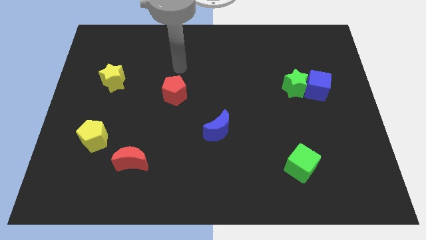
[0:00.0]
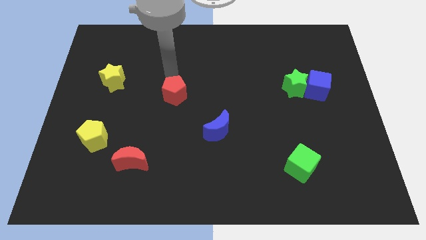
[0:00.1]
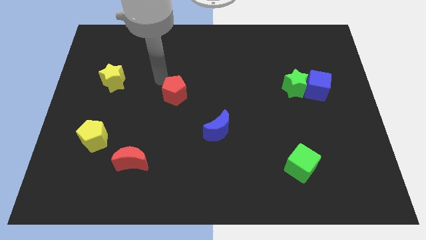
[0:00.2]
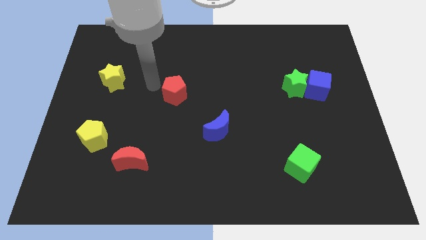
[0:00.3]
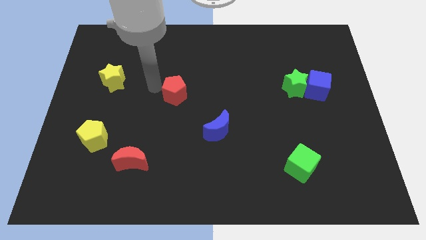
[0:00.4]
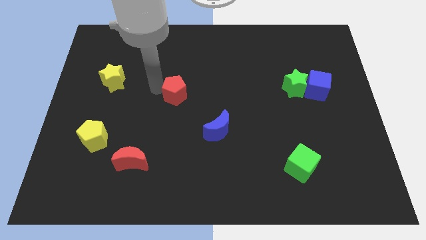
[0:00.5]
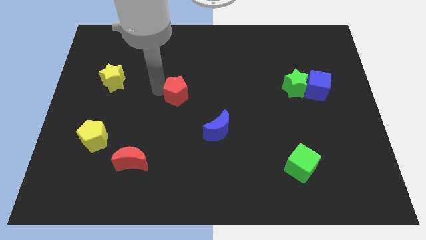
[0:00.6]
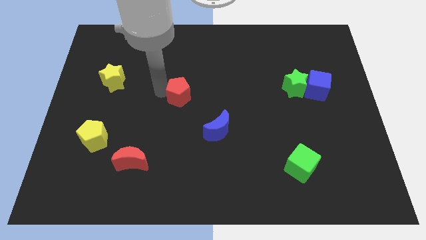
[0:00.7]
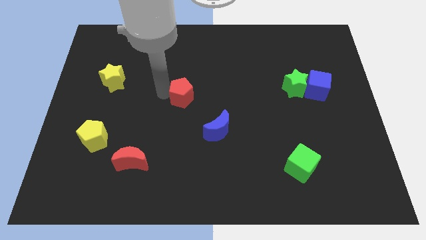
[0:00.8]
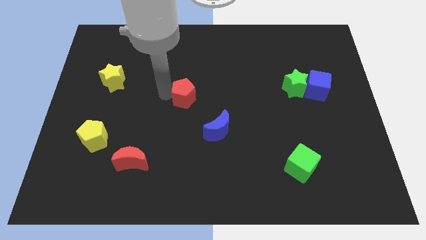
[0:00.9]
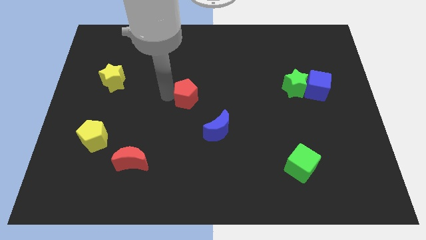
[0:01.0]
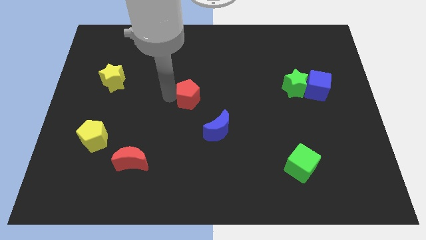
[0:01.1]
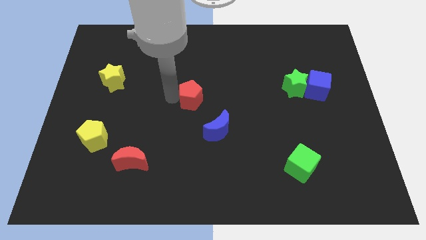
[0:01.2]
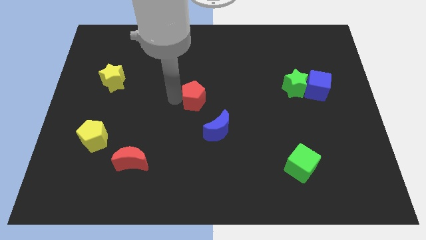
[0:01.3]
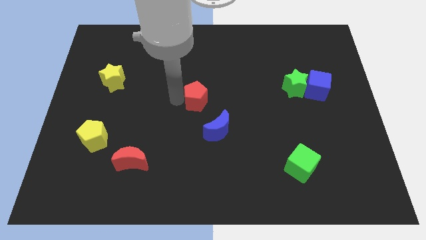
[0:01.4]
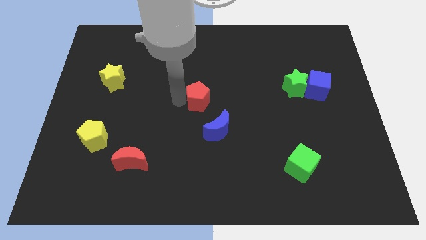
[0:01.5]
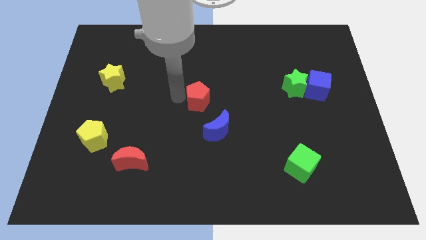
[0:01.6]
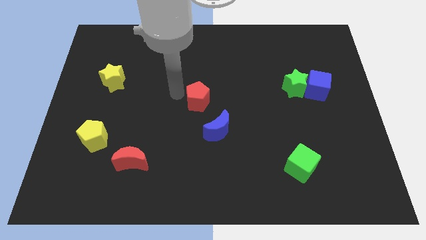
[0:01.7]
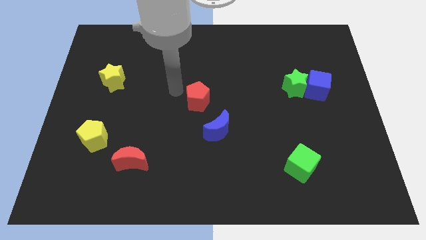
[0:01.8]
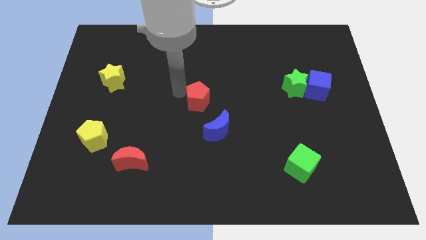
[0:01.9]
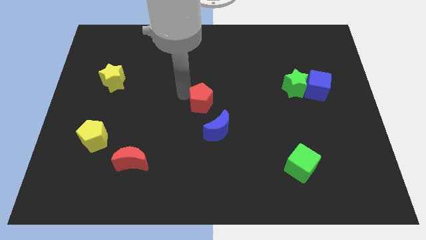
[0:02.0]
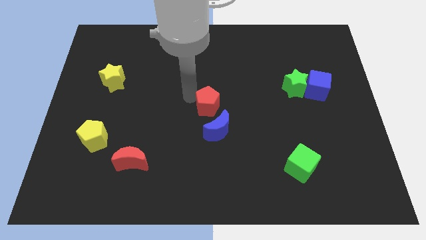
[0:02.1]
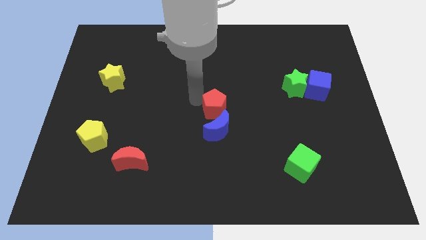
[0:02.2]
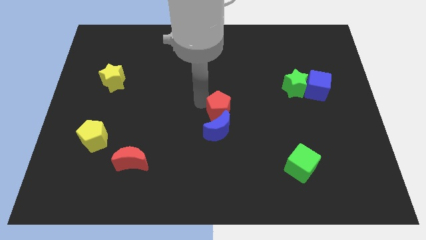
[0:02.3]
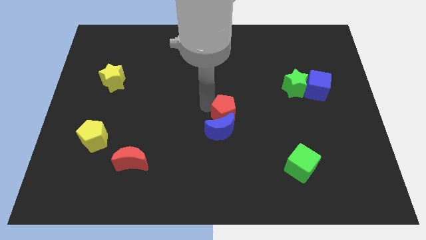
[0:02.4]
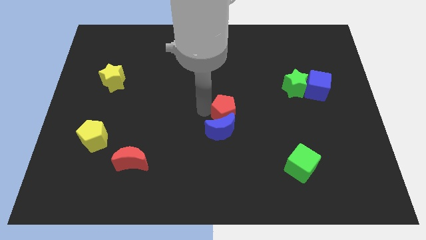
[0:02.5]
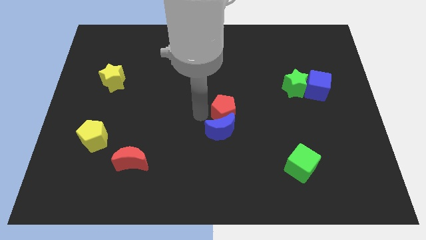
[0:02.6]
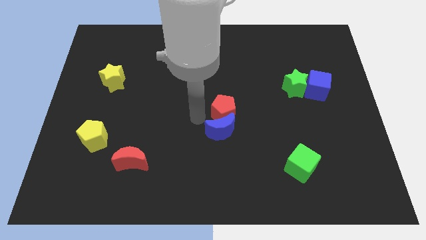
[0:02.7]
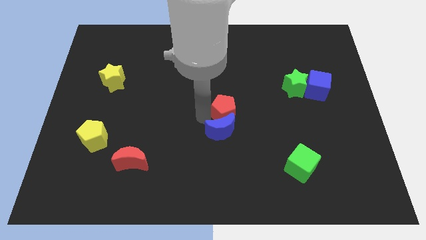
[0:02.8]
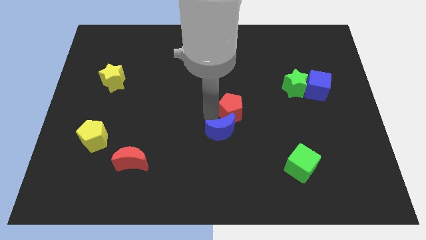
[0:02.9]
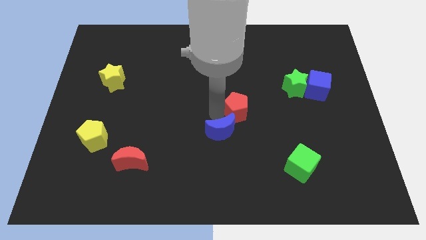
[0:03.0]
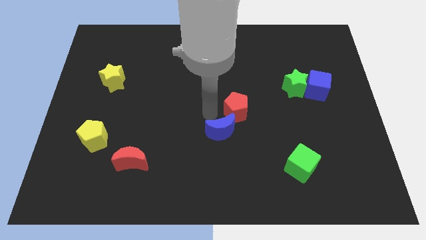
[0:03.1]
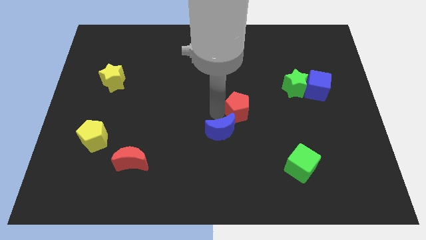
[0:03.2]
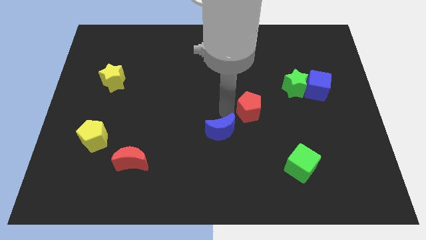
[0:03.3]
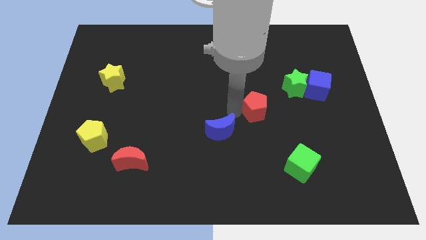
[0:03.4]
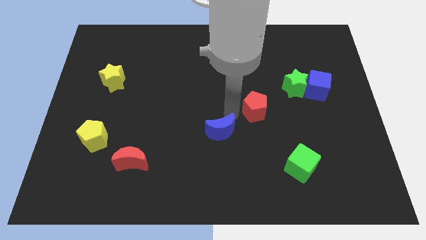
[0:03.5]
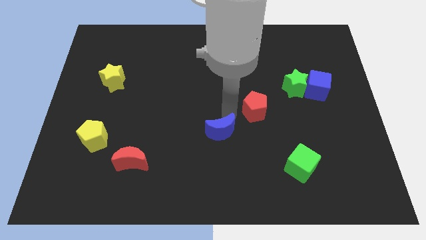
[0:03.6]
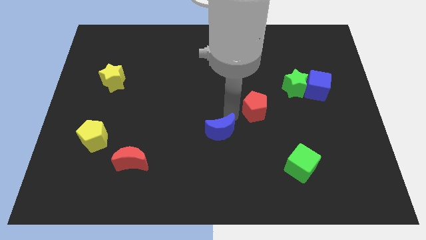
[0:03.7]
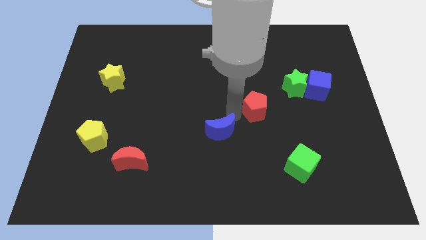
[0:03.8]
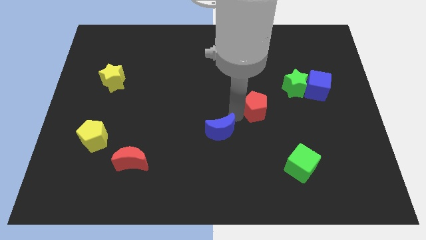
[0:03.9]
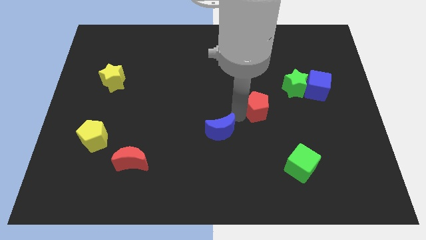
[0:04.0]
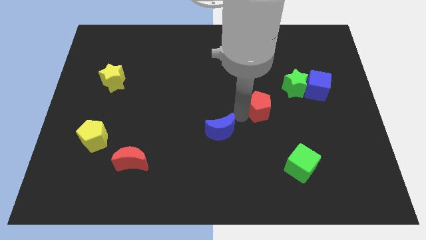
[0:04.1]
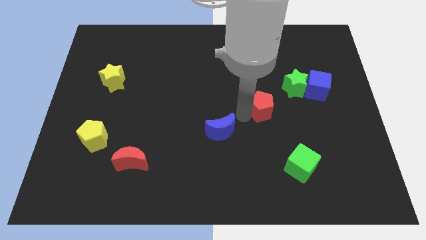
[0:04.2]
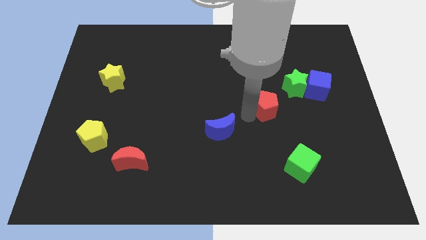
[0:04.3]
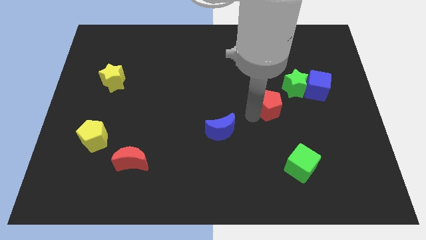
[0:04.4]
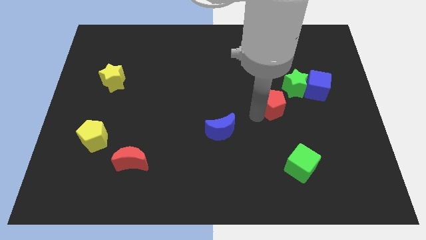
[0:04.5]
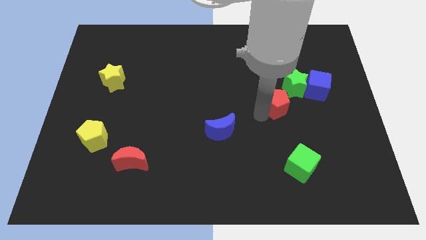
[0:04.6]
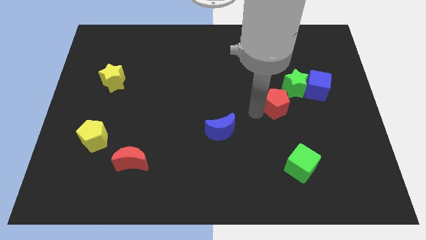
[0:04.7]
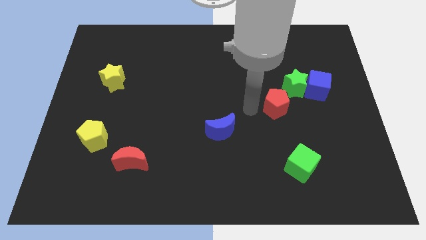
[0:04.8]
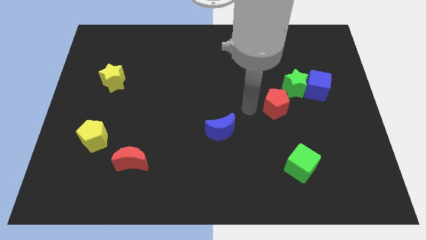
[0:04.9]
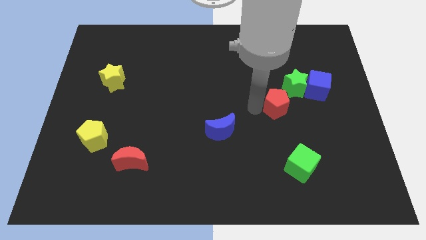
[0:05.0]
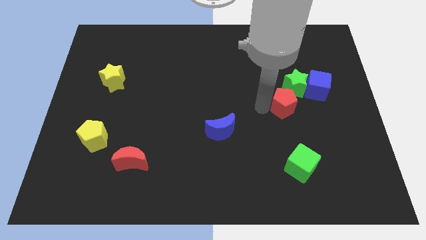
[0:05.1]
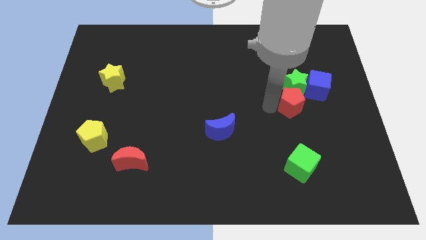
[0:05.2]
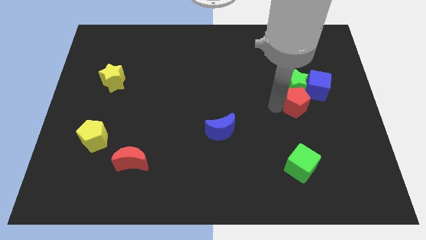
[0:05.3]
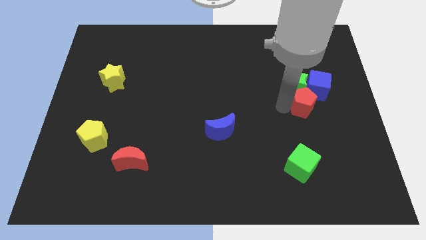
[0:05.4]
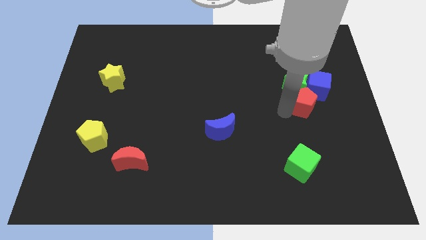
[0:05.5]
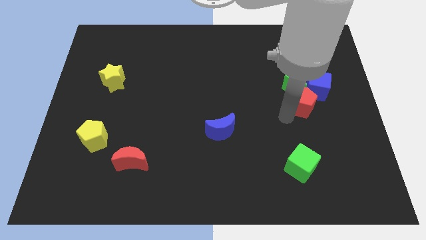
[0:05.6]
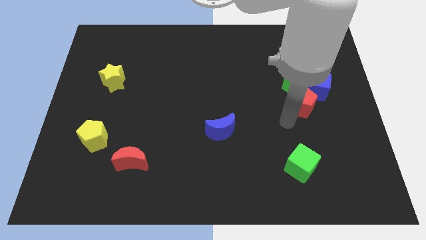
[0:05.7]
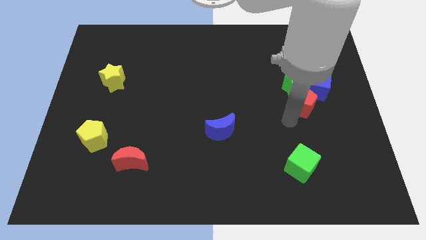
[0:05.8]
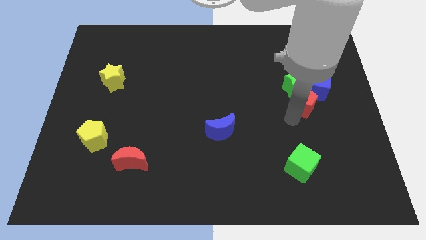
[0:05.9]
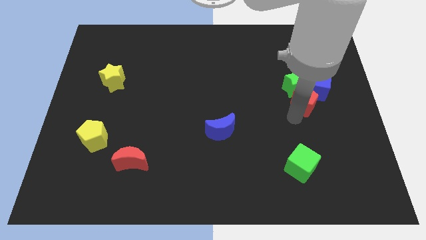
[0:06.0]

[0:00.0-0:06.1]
push the red pentagon towards the blue cube

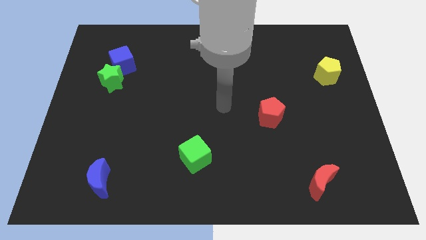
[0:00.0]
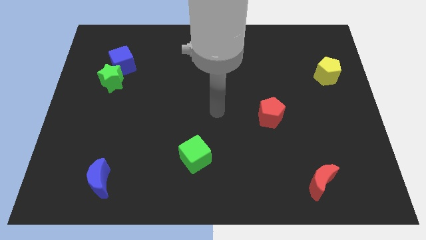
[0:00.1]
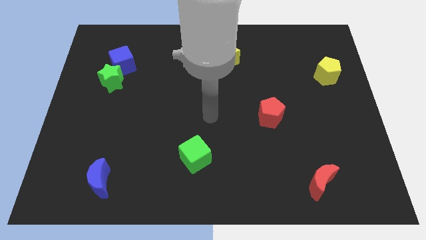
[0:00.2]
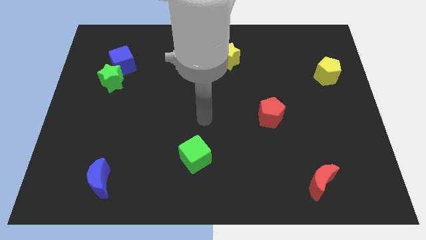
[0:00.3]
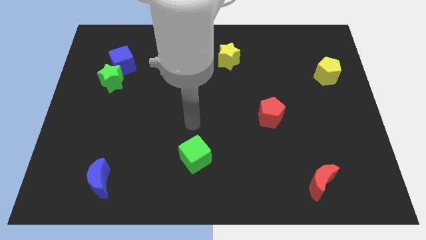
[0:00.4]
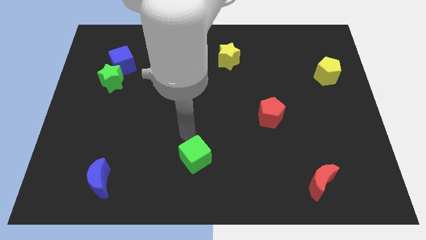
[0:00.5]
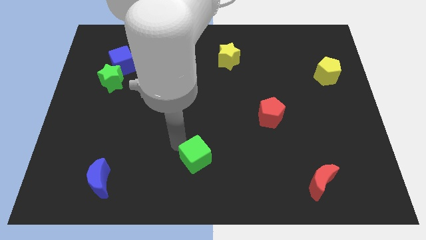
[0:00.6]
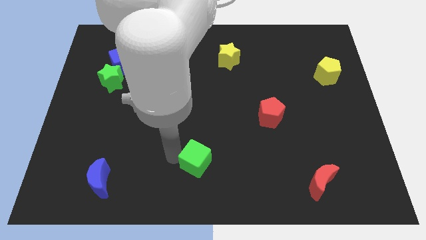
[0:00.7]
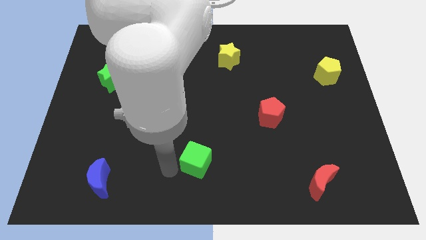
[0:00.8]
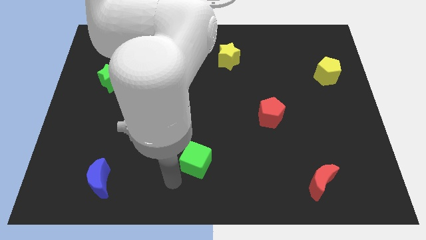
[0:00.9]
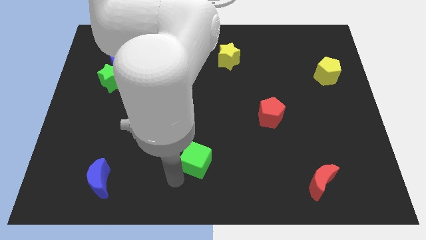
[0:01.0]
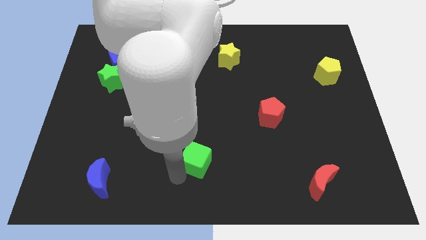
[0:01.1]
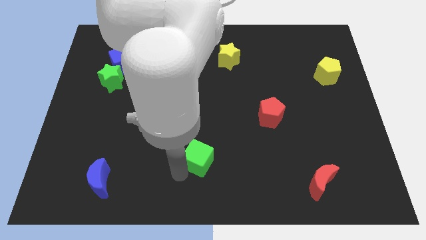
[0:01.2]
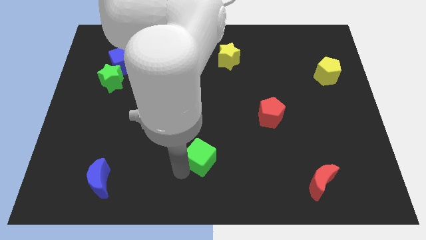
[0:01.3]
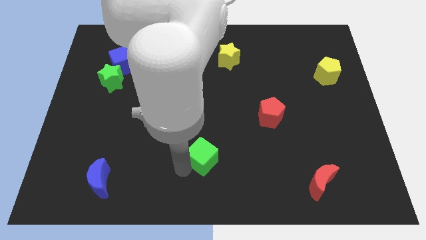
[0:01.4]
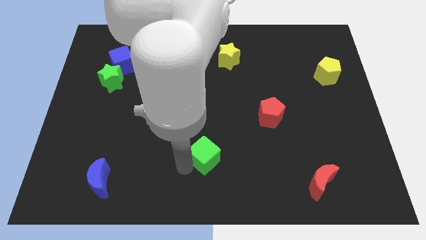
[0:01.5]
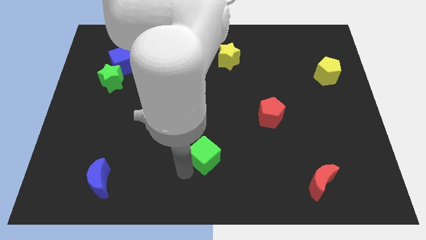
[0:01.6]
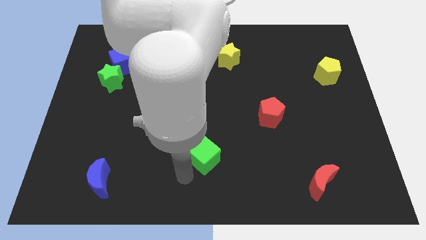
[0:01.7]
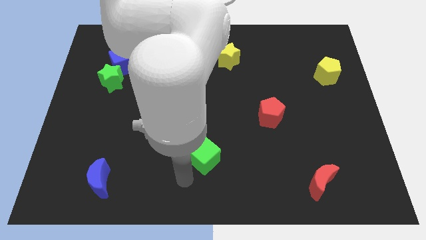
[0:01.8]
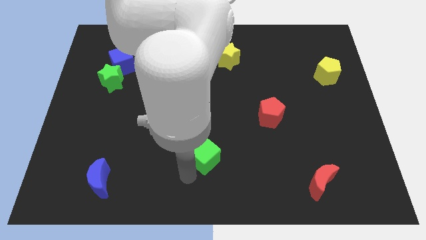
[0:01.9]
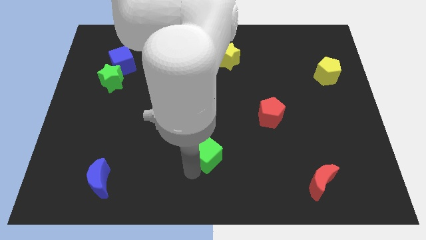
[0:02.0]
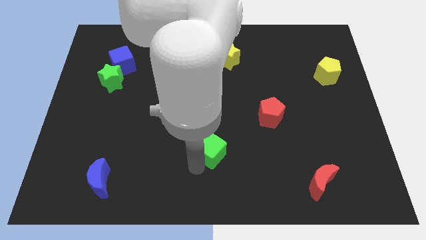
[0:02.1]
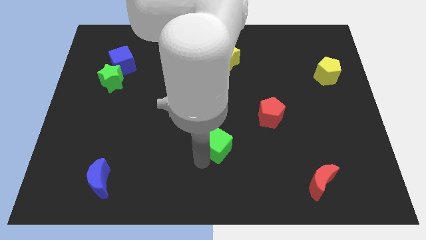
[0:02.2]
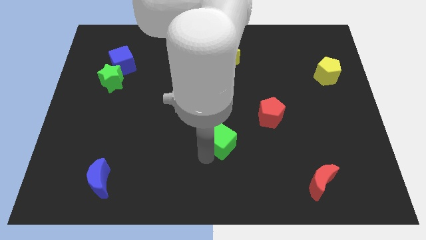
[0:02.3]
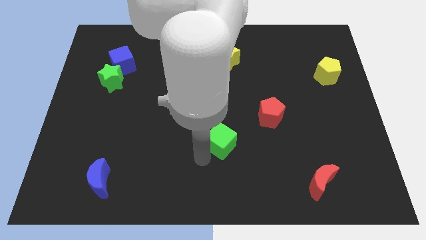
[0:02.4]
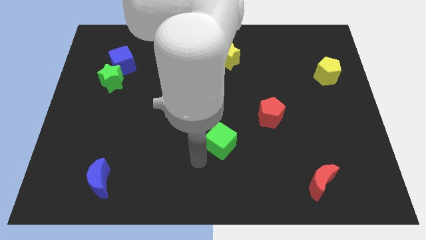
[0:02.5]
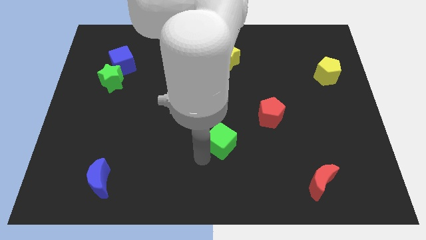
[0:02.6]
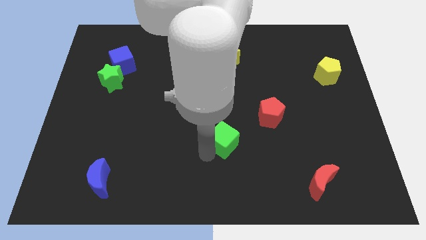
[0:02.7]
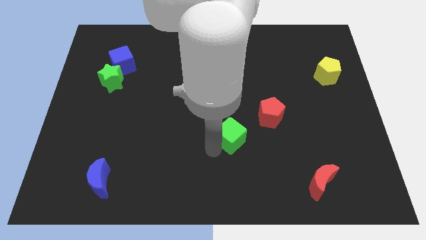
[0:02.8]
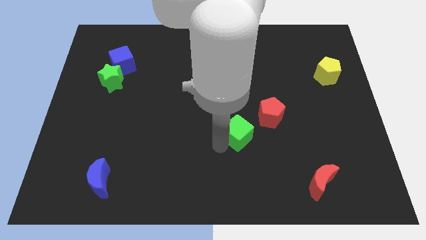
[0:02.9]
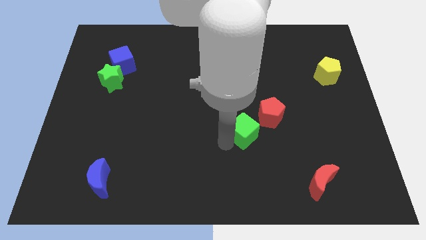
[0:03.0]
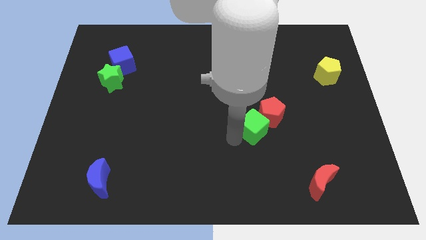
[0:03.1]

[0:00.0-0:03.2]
move the green cube to the red pentagon
